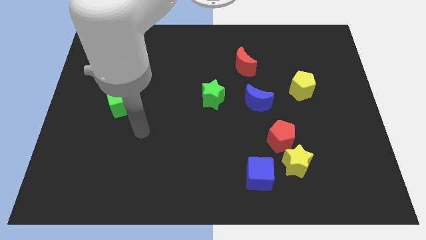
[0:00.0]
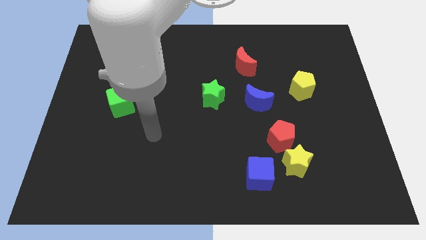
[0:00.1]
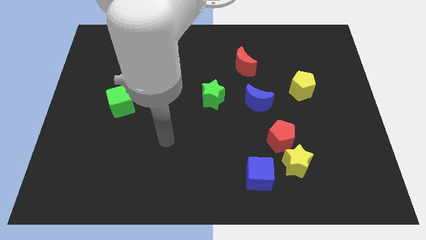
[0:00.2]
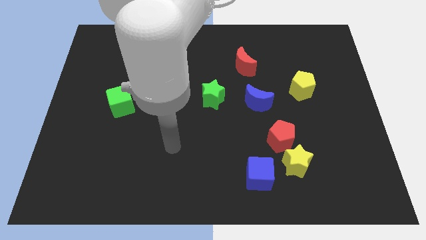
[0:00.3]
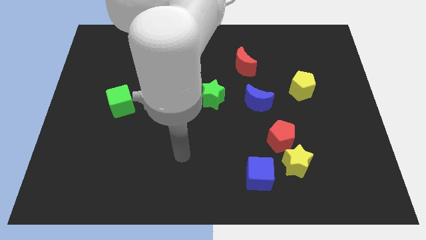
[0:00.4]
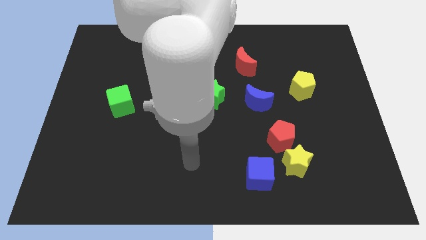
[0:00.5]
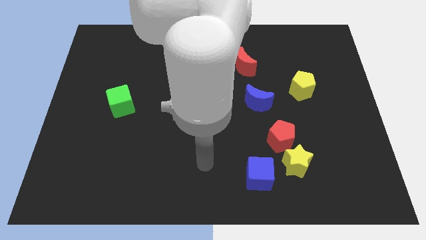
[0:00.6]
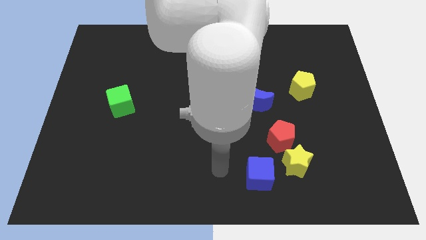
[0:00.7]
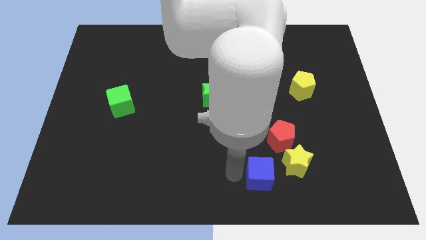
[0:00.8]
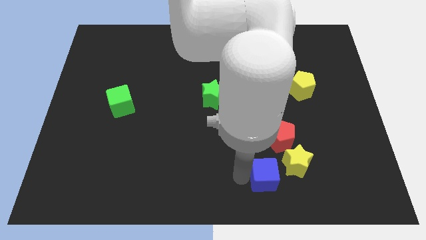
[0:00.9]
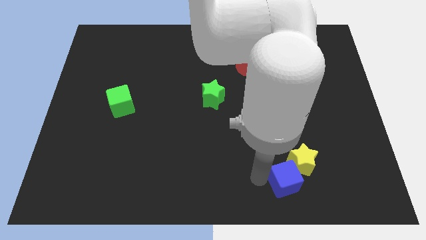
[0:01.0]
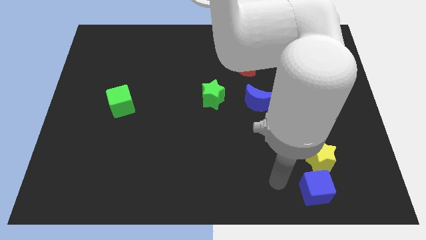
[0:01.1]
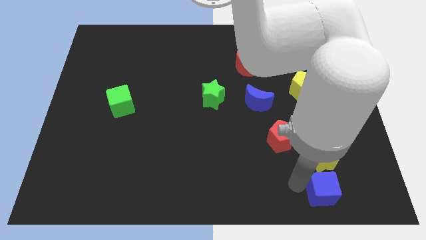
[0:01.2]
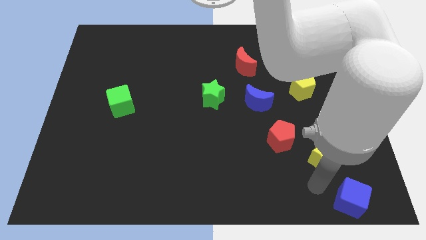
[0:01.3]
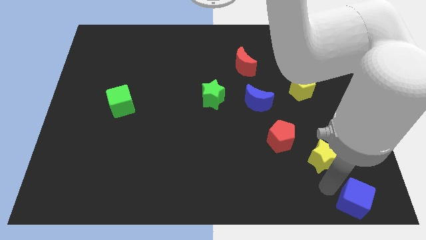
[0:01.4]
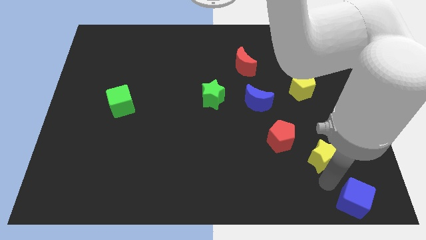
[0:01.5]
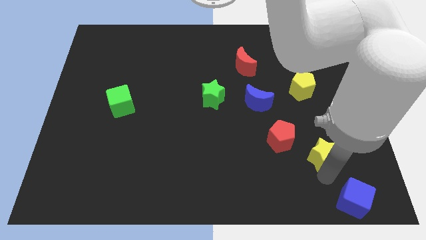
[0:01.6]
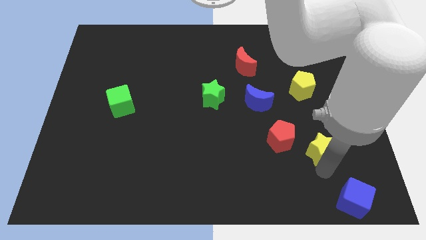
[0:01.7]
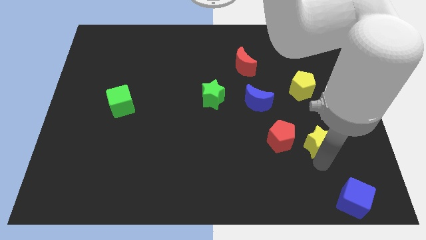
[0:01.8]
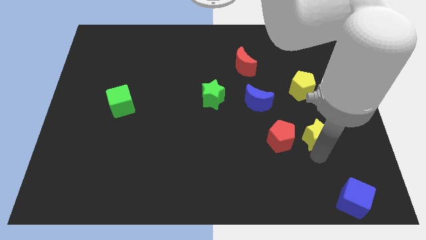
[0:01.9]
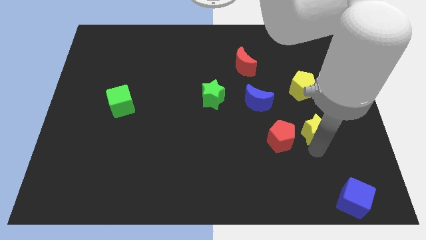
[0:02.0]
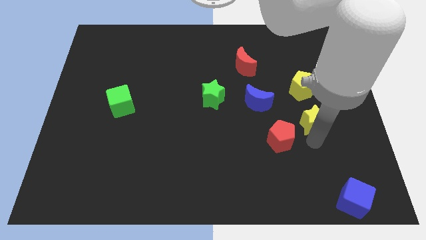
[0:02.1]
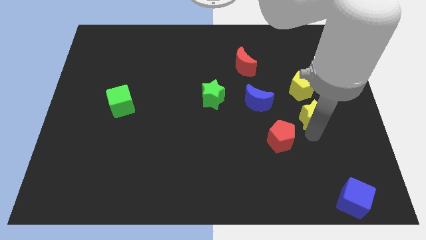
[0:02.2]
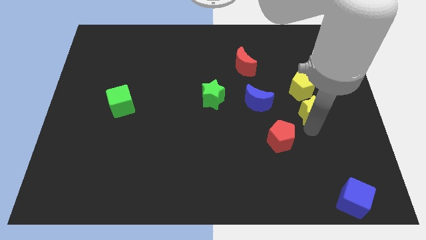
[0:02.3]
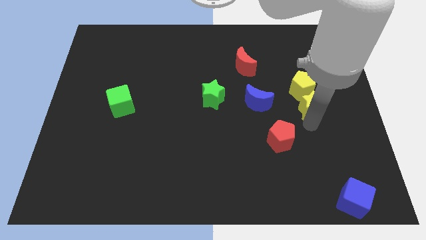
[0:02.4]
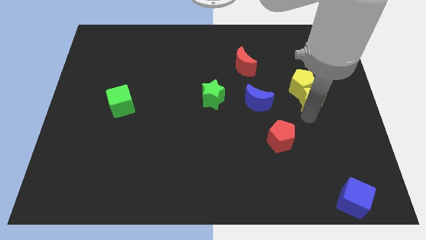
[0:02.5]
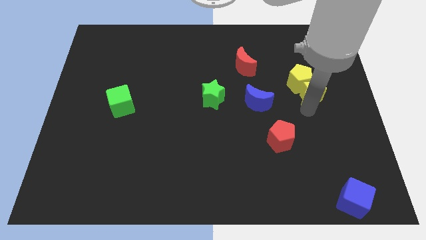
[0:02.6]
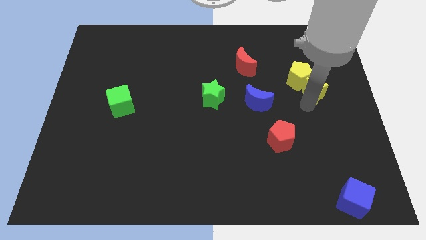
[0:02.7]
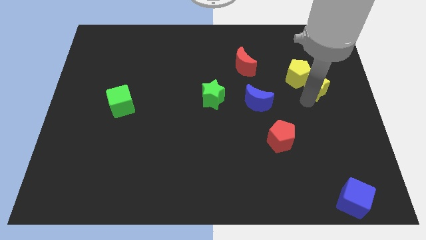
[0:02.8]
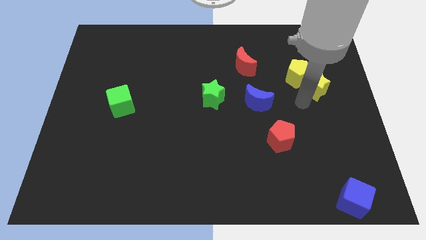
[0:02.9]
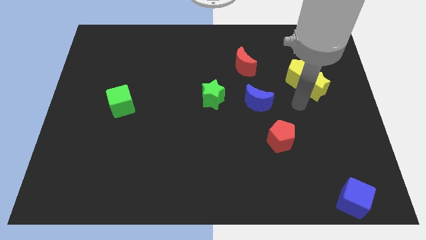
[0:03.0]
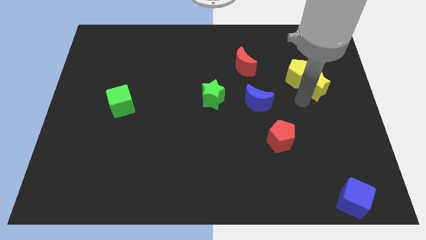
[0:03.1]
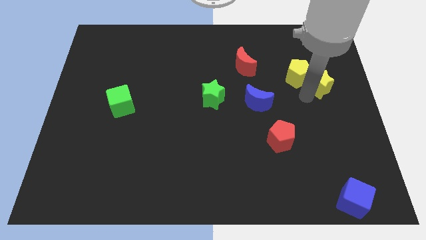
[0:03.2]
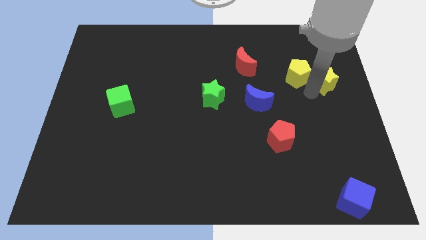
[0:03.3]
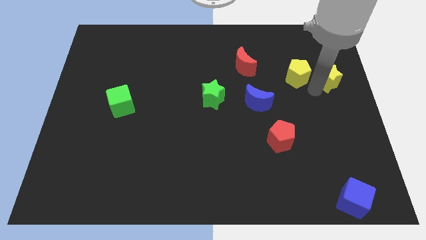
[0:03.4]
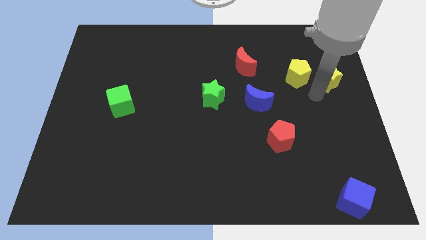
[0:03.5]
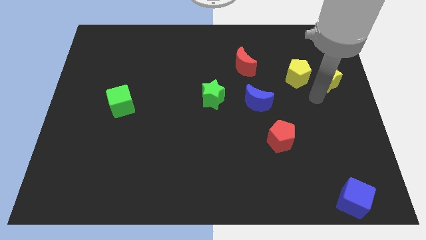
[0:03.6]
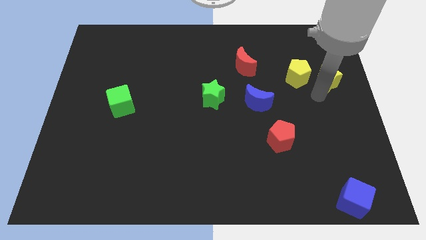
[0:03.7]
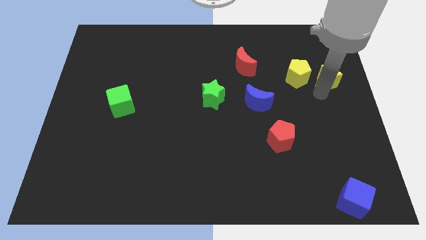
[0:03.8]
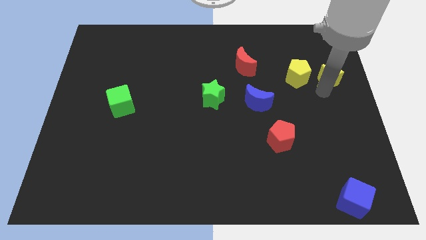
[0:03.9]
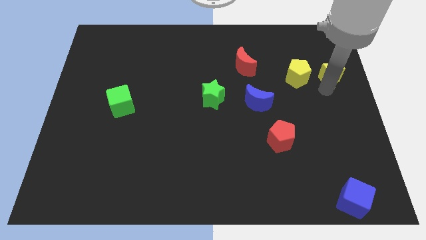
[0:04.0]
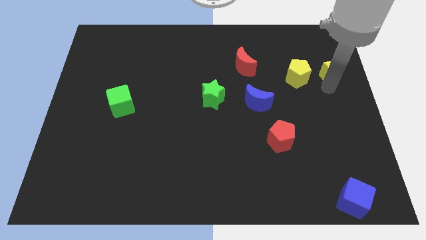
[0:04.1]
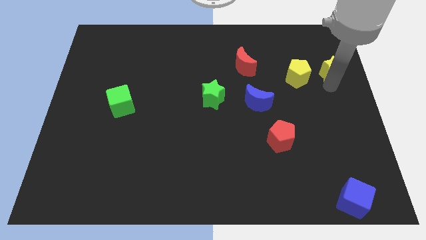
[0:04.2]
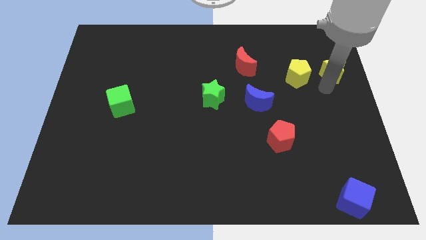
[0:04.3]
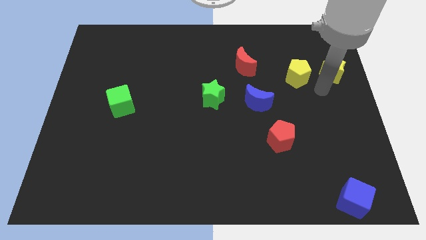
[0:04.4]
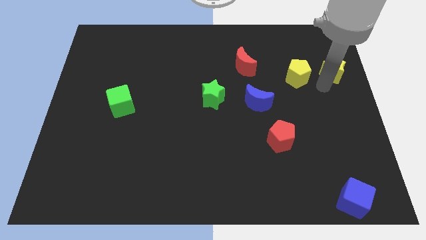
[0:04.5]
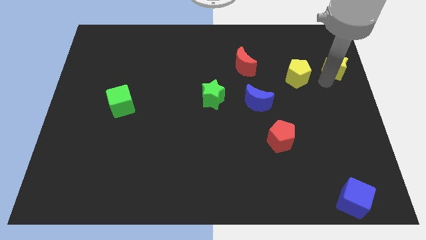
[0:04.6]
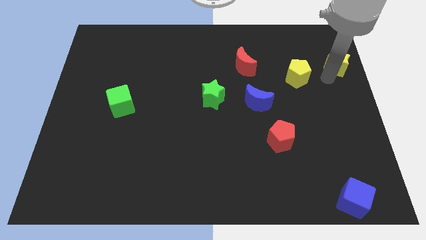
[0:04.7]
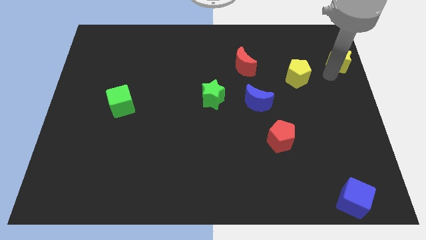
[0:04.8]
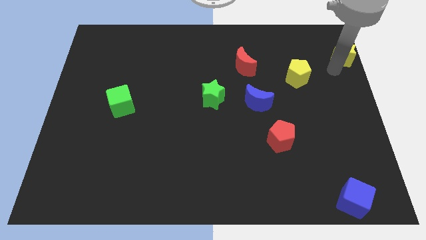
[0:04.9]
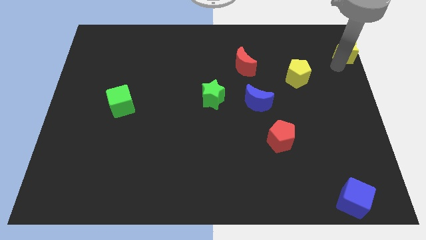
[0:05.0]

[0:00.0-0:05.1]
move the yellow star to the upper right corner

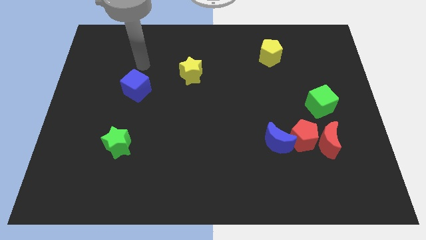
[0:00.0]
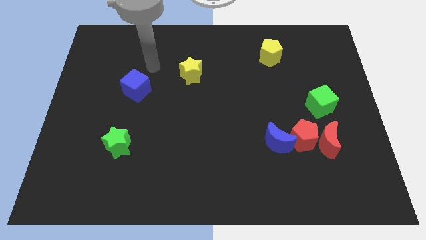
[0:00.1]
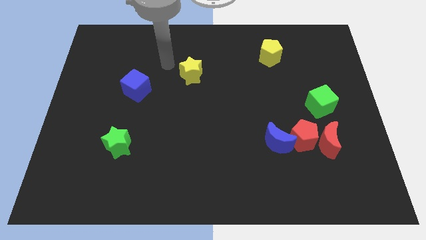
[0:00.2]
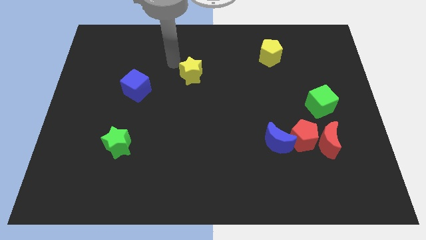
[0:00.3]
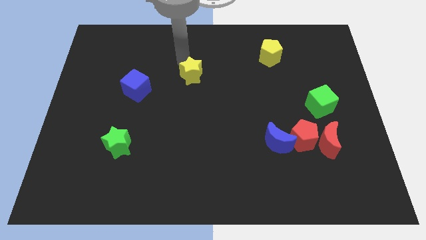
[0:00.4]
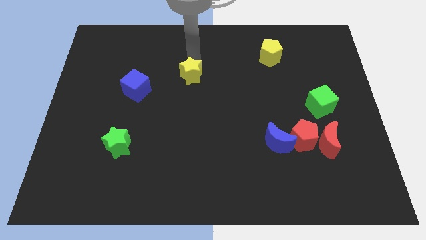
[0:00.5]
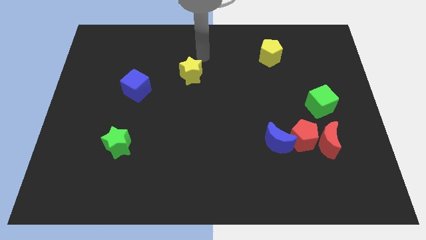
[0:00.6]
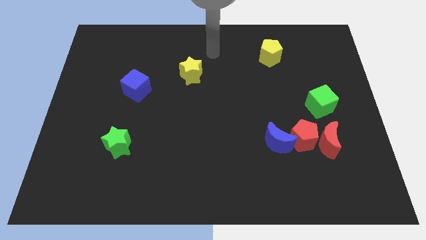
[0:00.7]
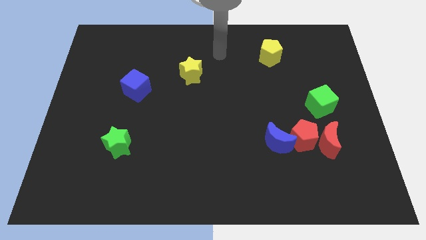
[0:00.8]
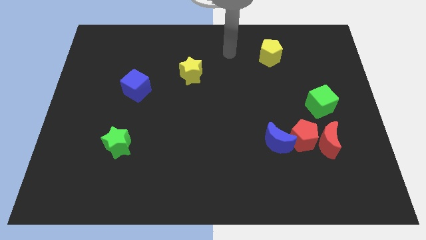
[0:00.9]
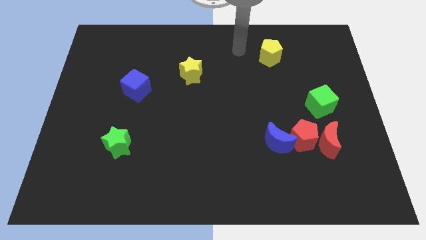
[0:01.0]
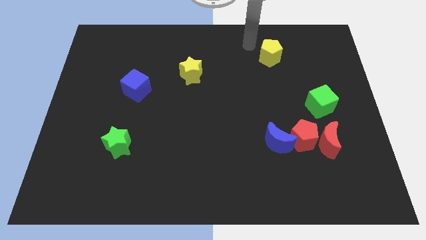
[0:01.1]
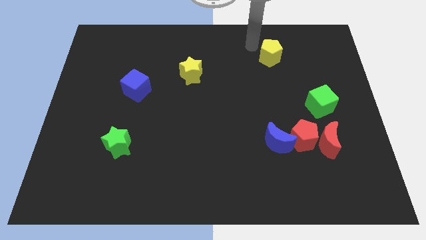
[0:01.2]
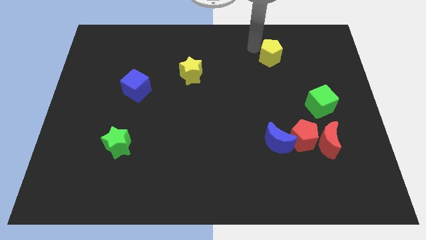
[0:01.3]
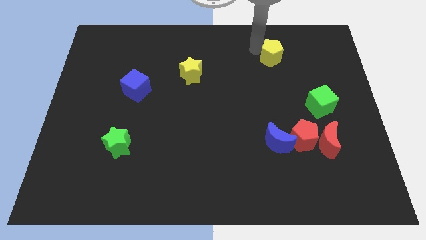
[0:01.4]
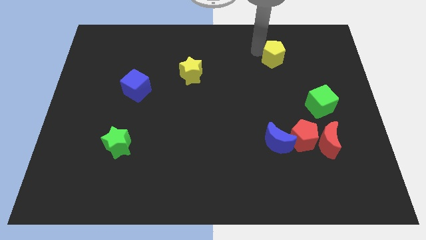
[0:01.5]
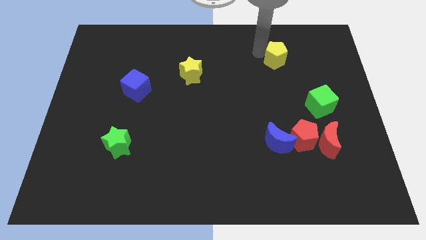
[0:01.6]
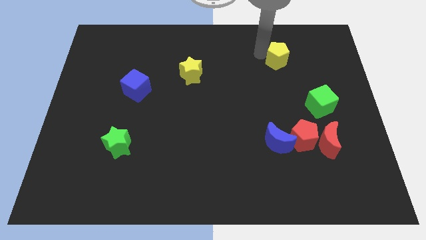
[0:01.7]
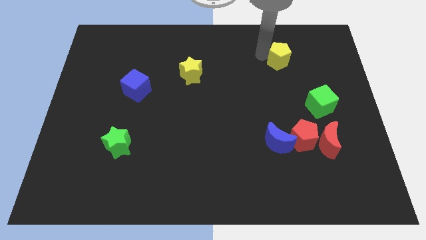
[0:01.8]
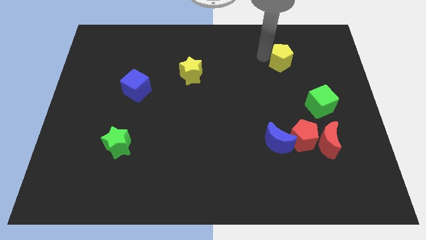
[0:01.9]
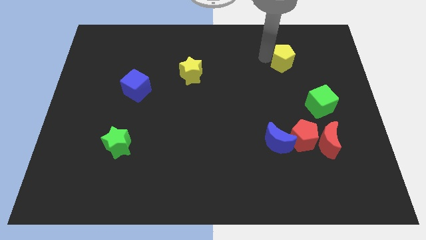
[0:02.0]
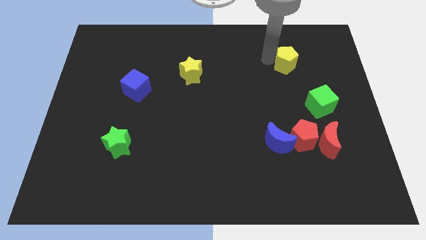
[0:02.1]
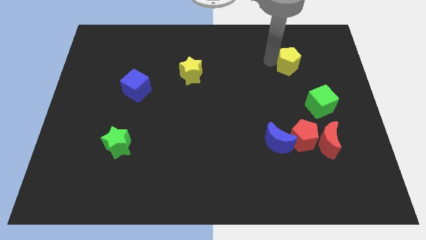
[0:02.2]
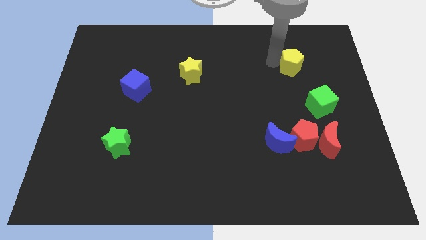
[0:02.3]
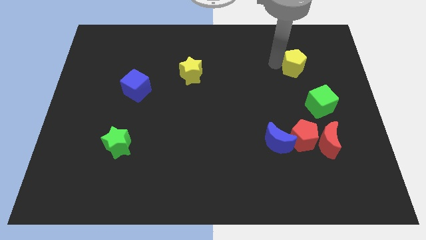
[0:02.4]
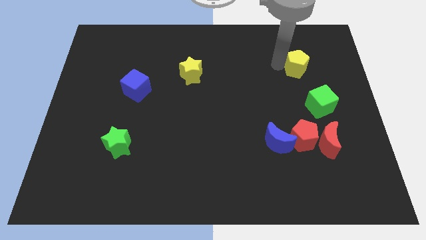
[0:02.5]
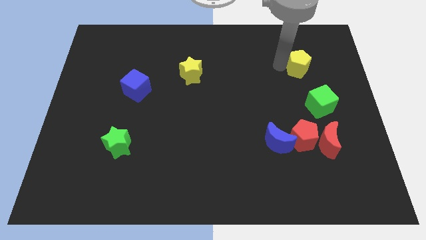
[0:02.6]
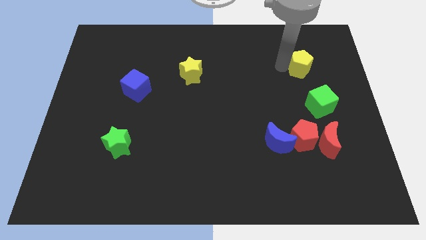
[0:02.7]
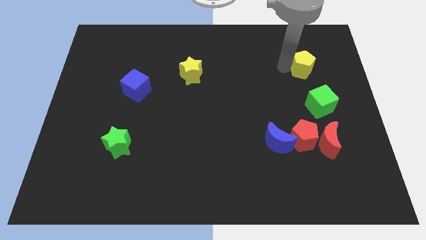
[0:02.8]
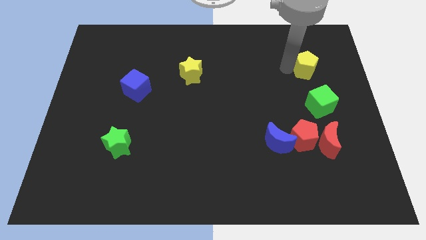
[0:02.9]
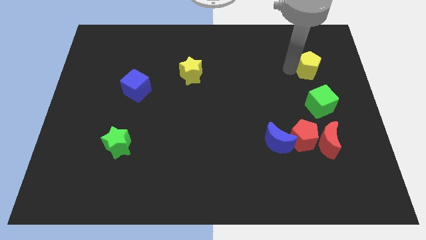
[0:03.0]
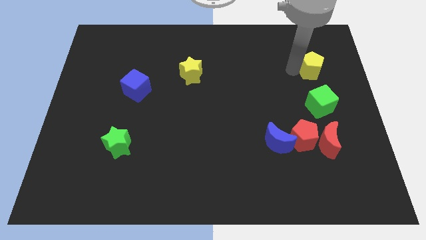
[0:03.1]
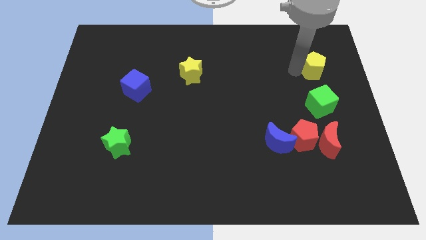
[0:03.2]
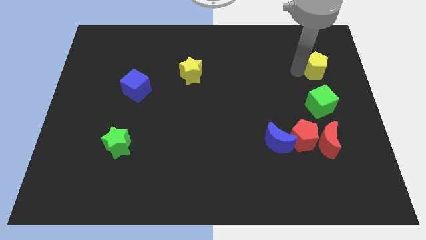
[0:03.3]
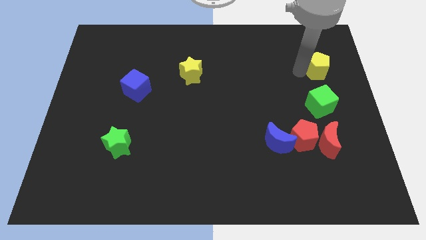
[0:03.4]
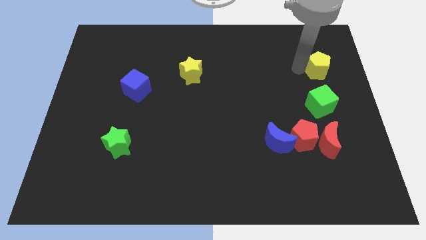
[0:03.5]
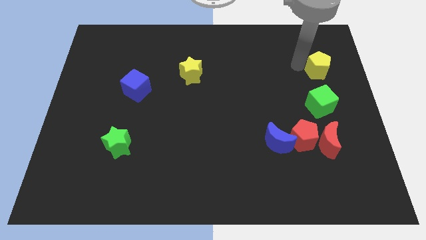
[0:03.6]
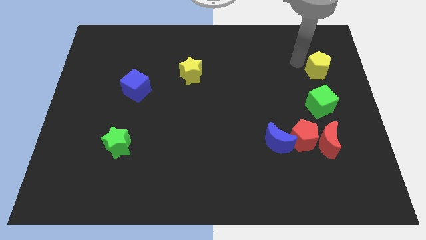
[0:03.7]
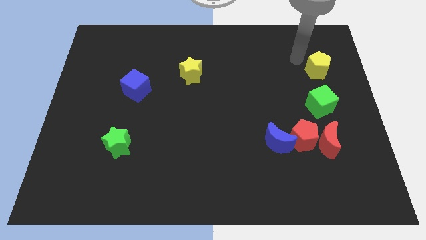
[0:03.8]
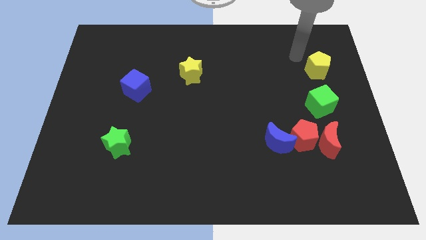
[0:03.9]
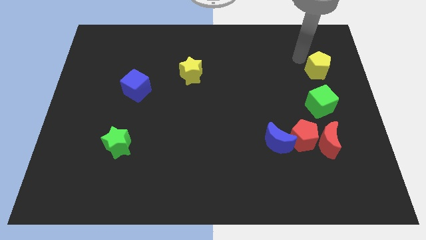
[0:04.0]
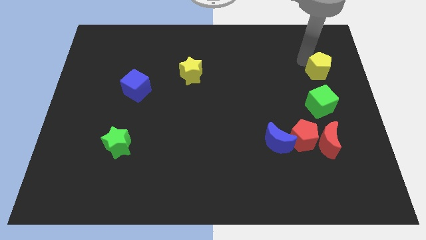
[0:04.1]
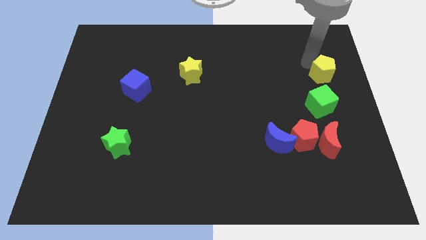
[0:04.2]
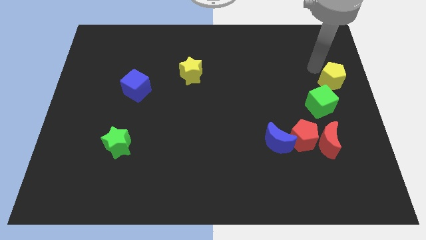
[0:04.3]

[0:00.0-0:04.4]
slide the yellow pentagon to the center right
